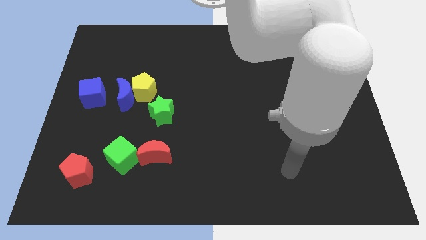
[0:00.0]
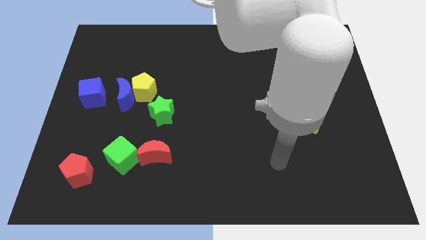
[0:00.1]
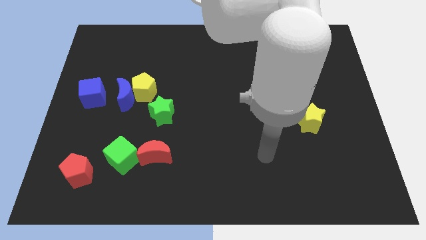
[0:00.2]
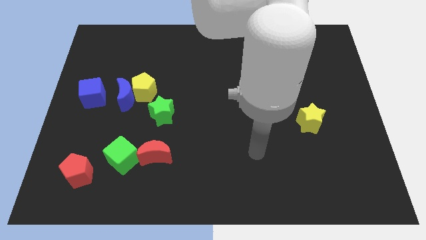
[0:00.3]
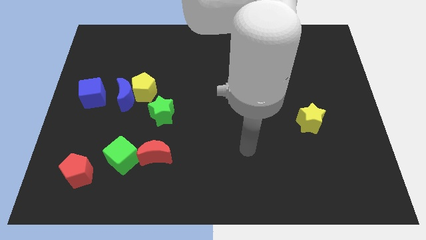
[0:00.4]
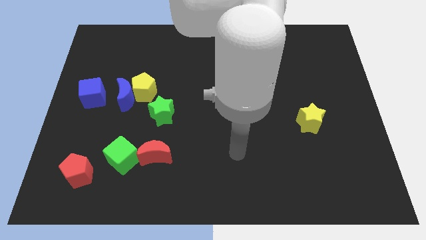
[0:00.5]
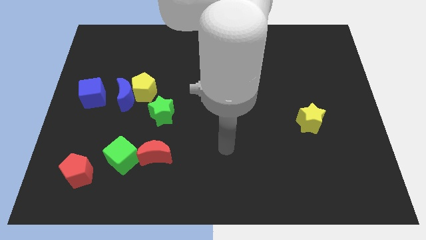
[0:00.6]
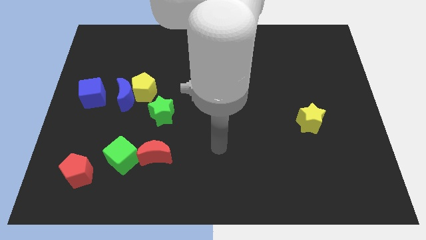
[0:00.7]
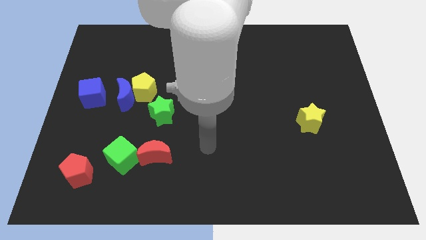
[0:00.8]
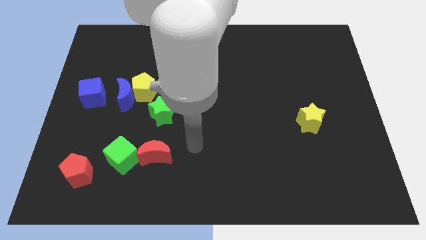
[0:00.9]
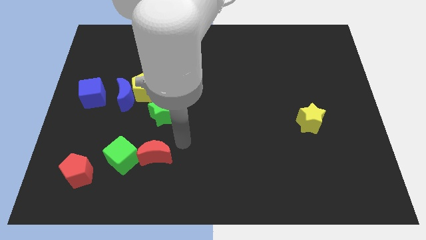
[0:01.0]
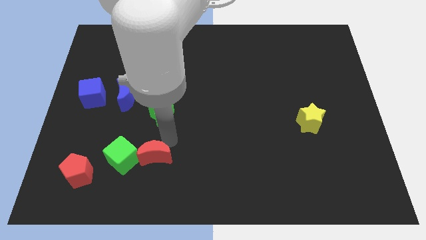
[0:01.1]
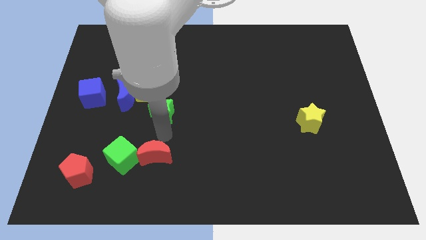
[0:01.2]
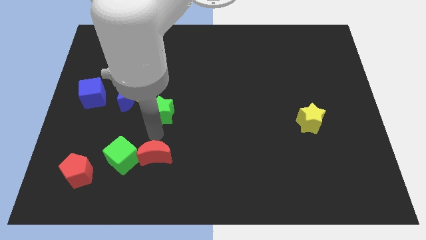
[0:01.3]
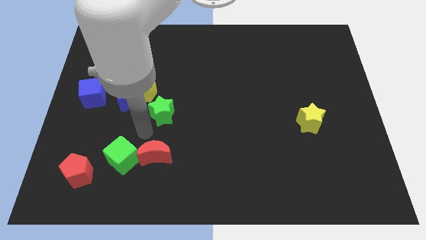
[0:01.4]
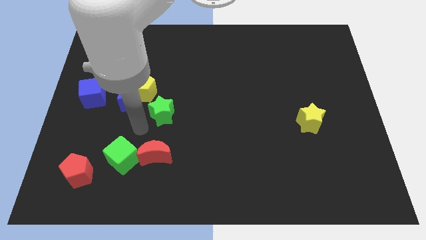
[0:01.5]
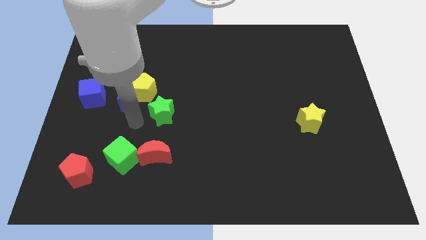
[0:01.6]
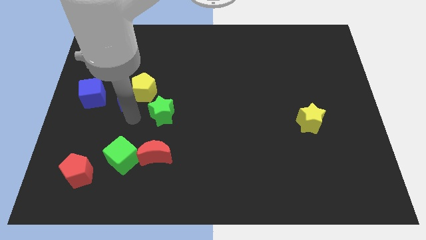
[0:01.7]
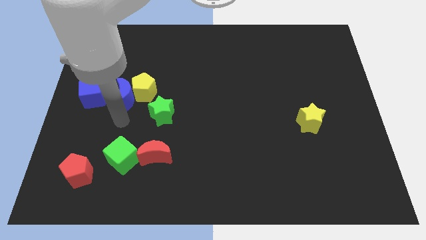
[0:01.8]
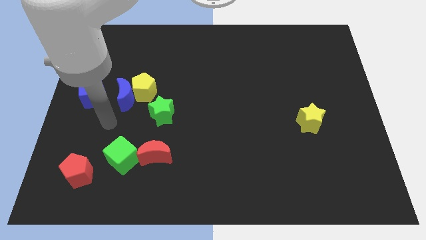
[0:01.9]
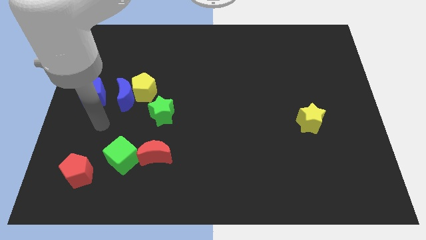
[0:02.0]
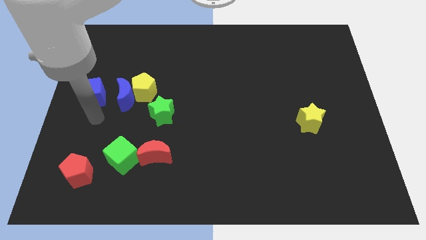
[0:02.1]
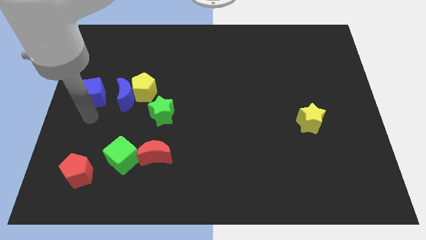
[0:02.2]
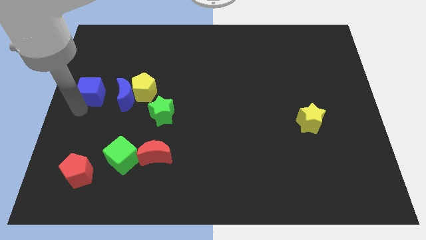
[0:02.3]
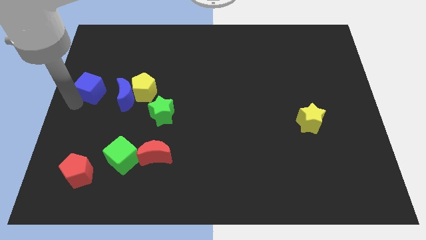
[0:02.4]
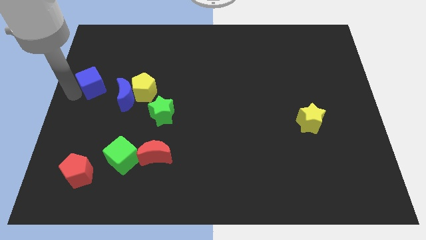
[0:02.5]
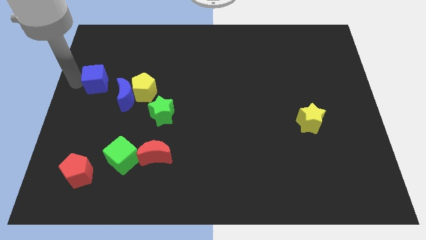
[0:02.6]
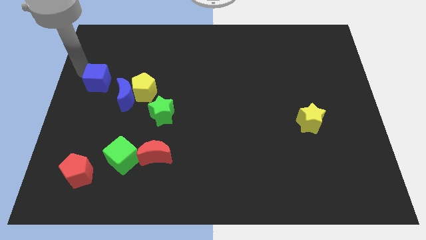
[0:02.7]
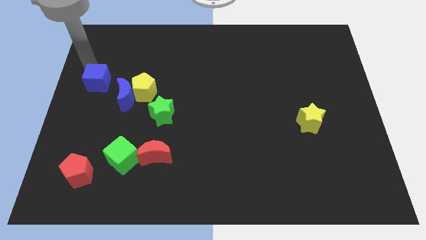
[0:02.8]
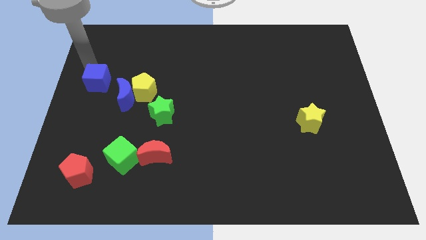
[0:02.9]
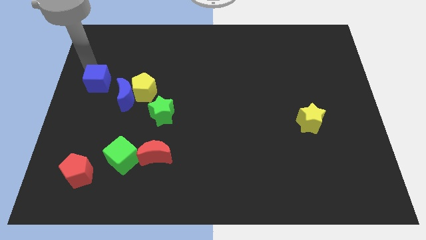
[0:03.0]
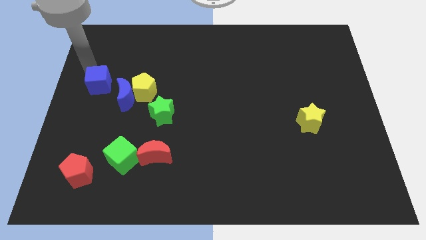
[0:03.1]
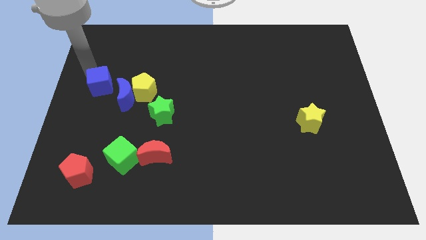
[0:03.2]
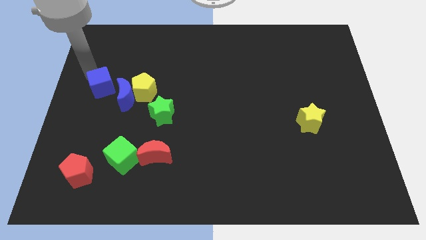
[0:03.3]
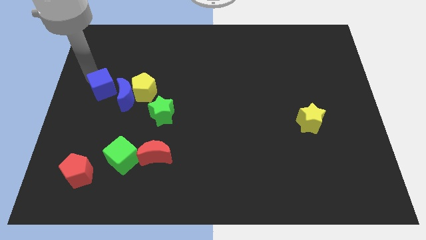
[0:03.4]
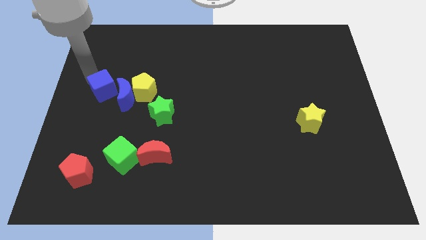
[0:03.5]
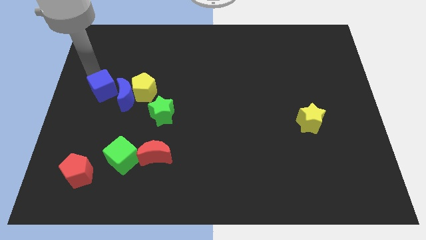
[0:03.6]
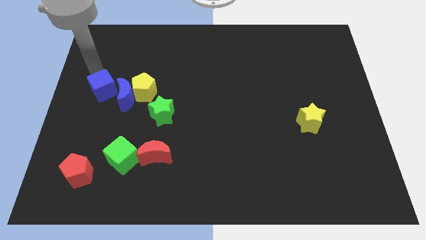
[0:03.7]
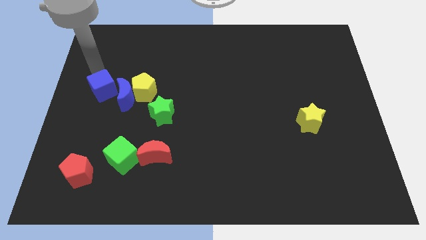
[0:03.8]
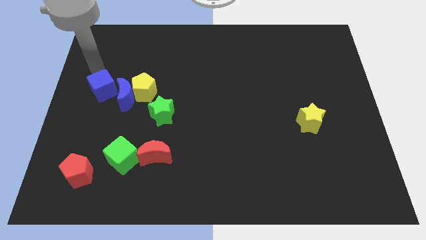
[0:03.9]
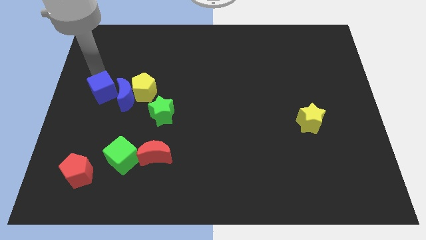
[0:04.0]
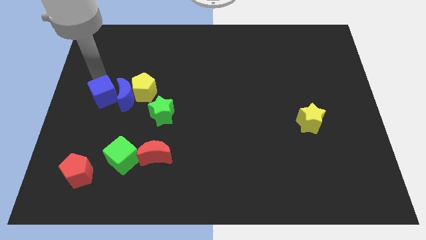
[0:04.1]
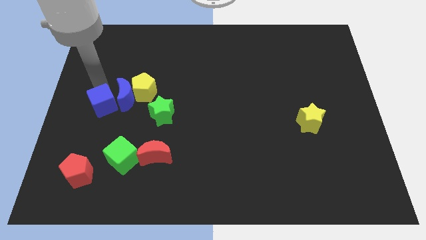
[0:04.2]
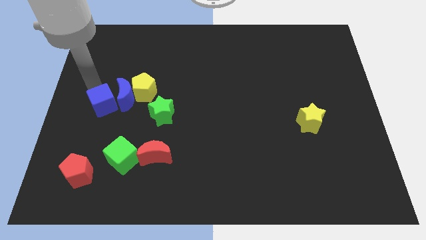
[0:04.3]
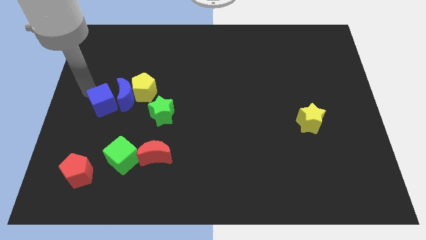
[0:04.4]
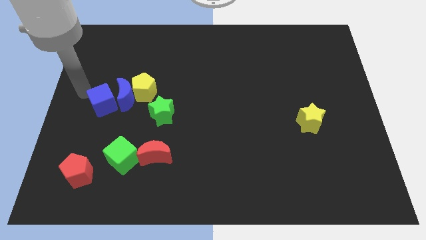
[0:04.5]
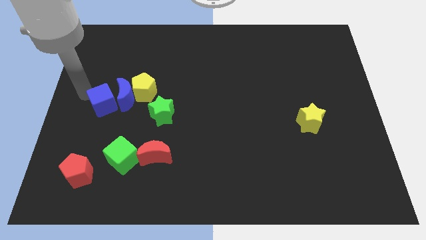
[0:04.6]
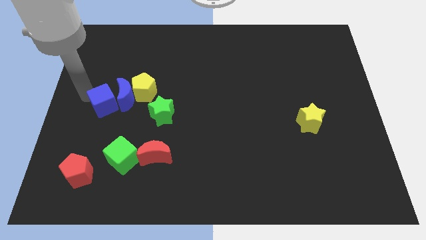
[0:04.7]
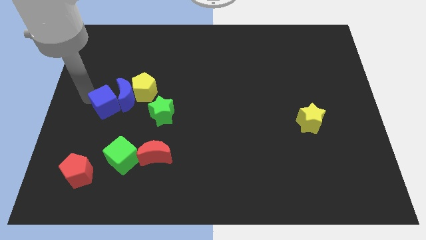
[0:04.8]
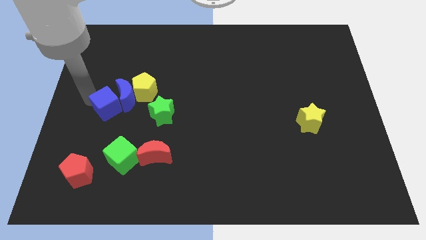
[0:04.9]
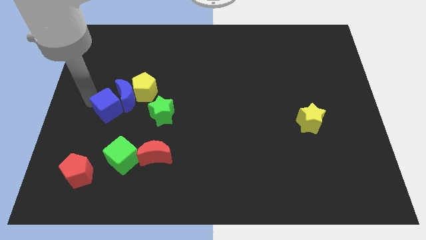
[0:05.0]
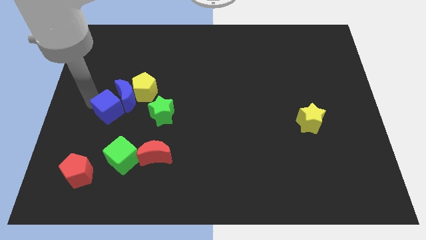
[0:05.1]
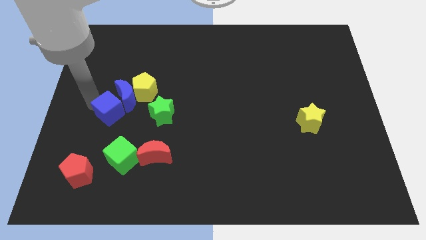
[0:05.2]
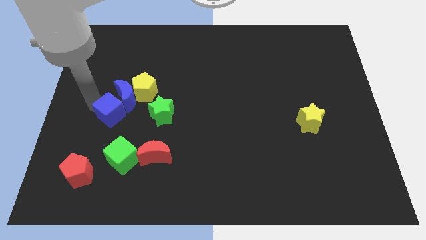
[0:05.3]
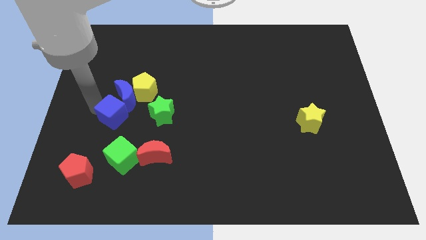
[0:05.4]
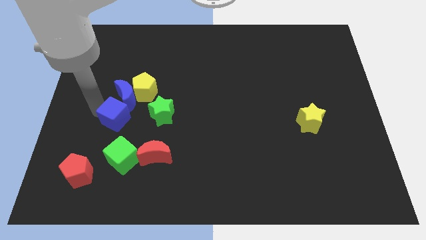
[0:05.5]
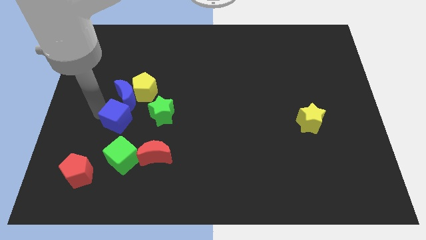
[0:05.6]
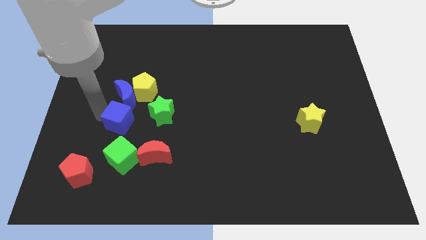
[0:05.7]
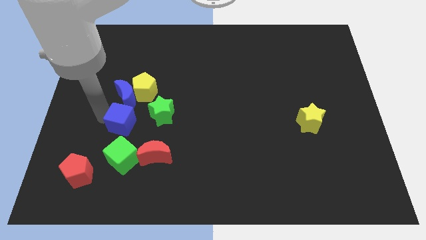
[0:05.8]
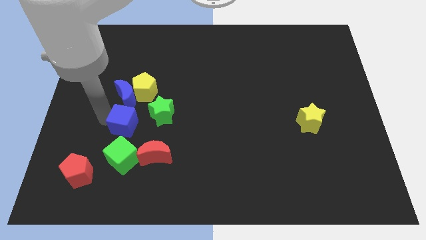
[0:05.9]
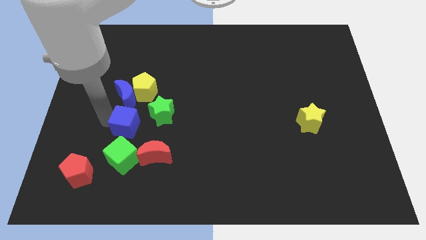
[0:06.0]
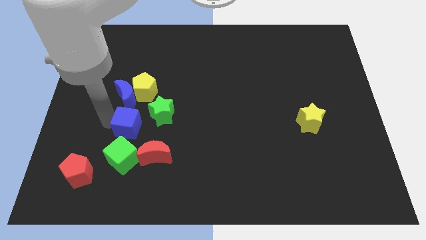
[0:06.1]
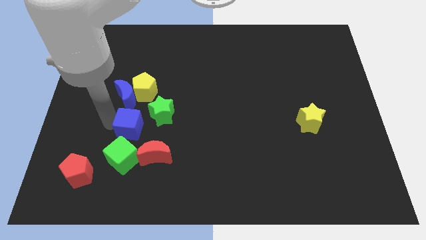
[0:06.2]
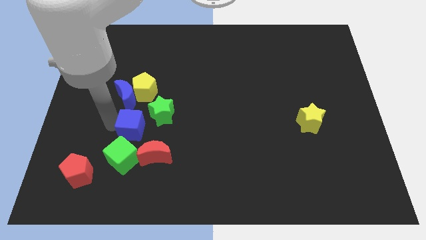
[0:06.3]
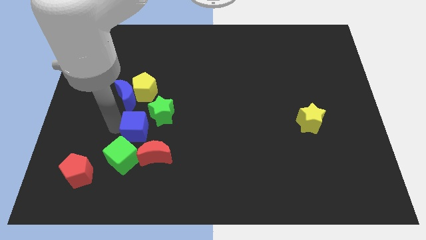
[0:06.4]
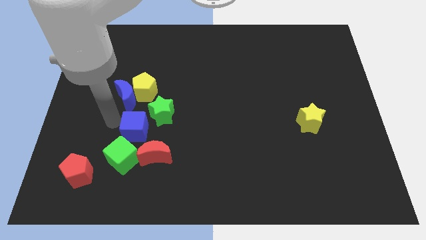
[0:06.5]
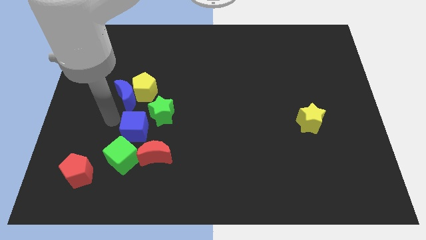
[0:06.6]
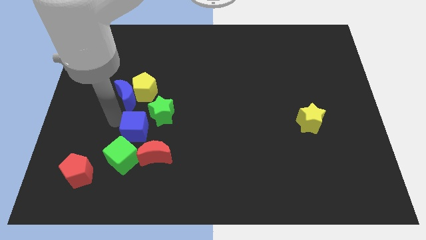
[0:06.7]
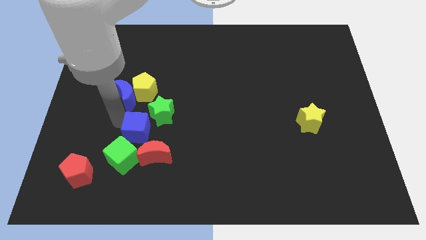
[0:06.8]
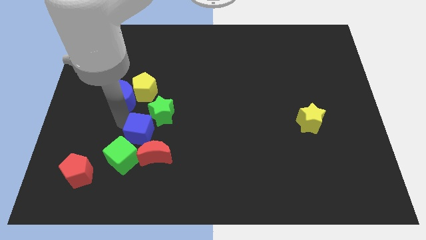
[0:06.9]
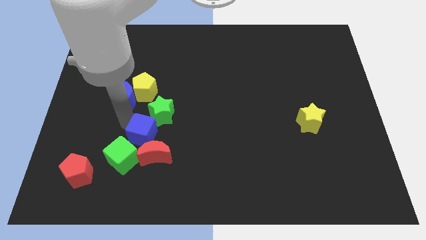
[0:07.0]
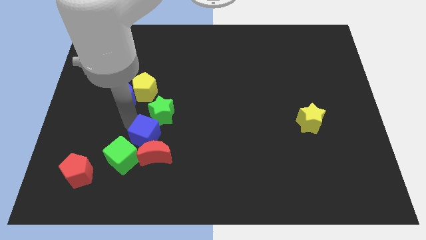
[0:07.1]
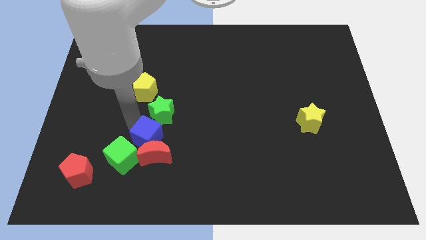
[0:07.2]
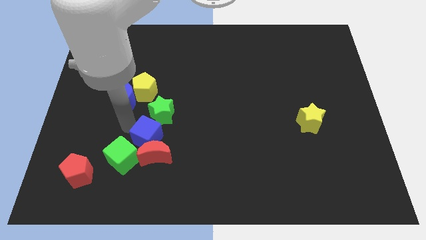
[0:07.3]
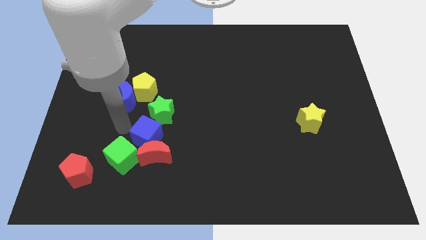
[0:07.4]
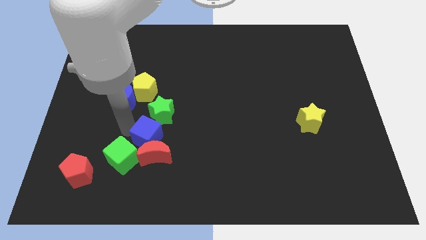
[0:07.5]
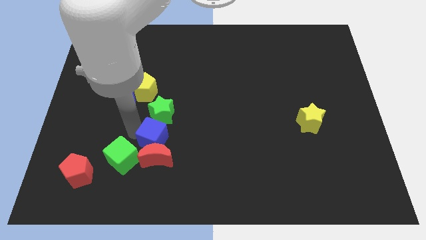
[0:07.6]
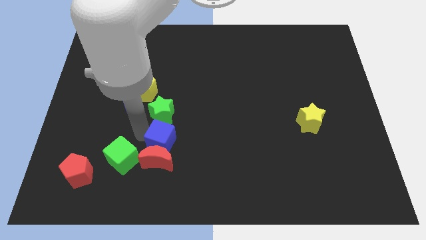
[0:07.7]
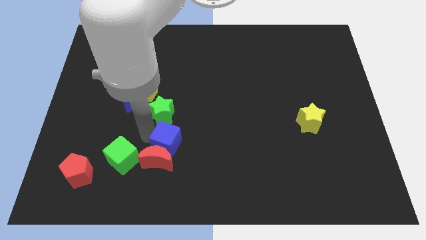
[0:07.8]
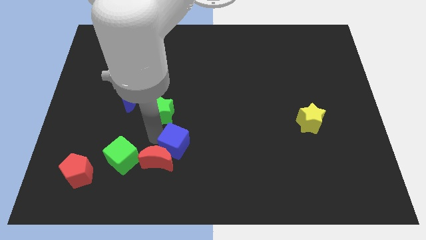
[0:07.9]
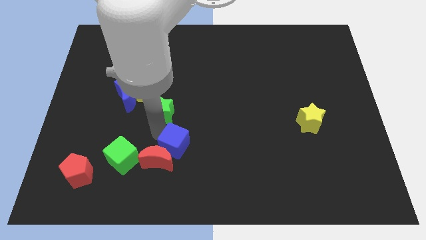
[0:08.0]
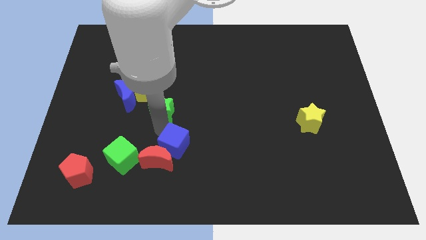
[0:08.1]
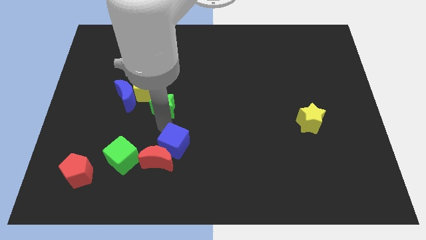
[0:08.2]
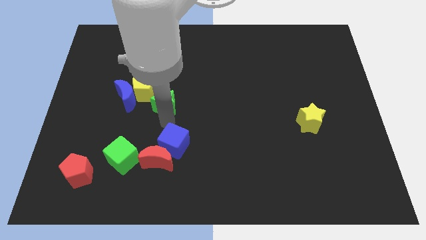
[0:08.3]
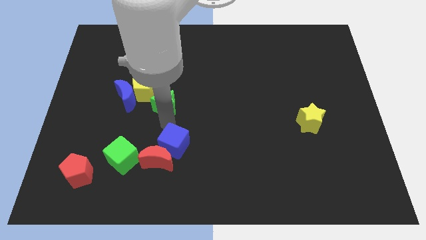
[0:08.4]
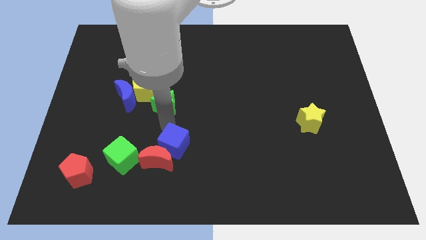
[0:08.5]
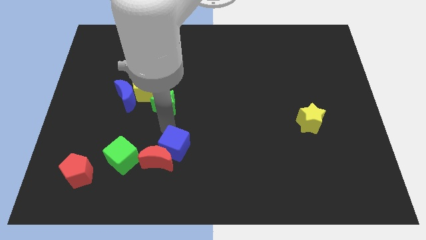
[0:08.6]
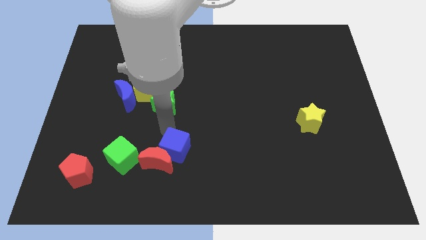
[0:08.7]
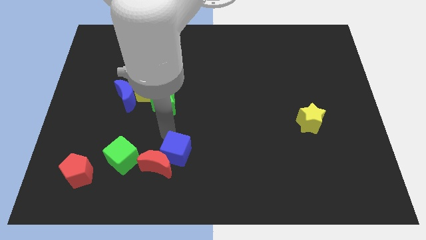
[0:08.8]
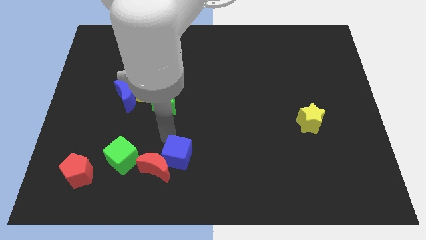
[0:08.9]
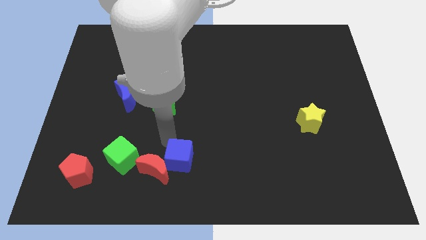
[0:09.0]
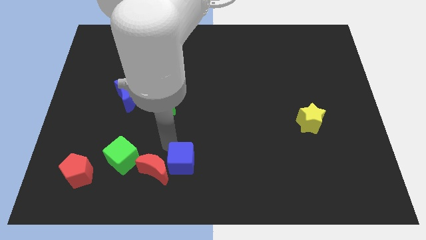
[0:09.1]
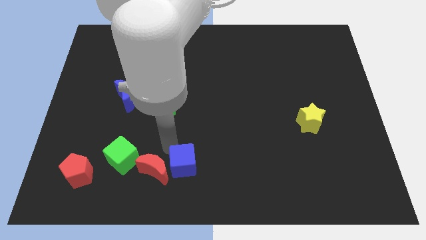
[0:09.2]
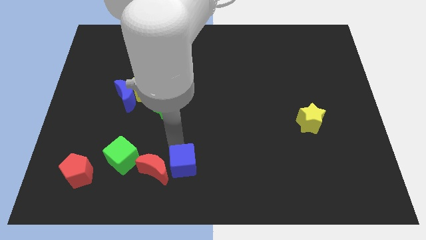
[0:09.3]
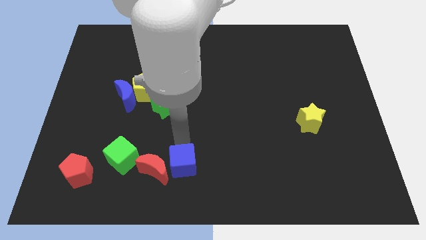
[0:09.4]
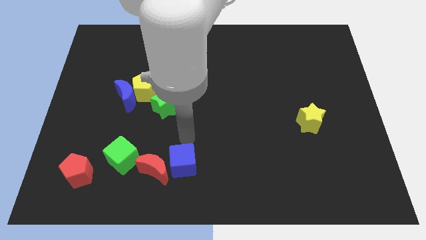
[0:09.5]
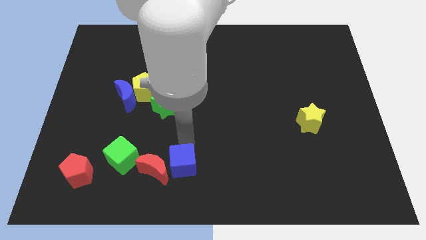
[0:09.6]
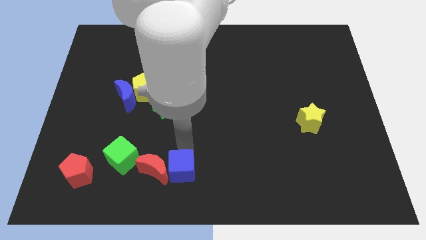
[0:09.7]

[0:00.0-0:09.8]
push the blue cube diagonally down and to the right of the red moon
